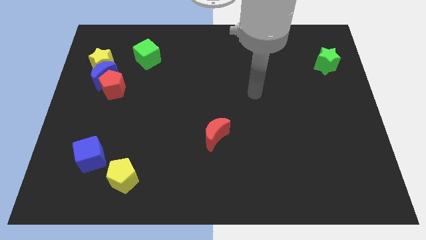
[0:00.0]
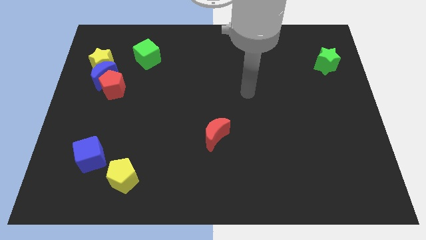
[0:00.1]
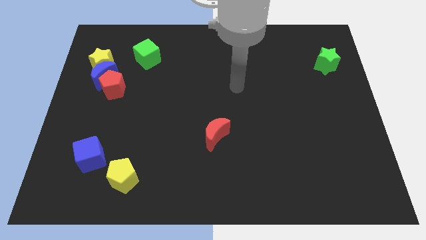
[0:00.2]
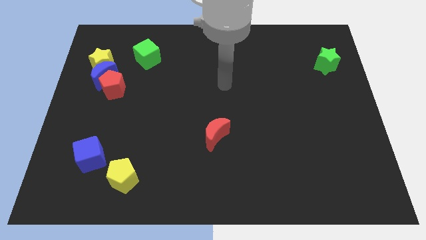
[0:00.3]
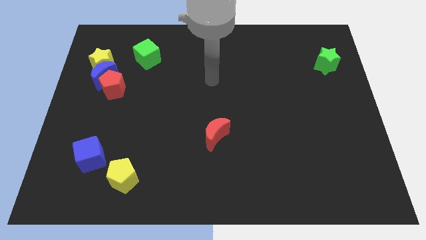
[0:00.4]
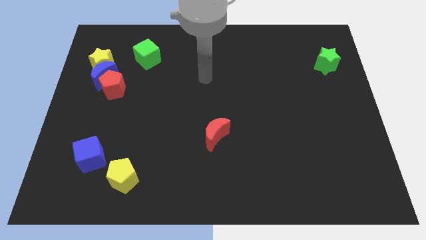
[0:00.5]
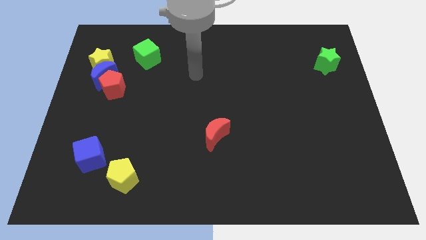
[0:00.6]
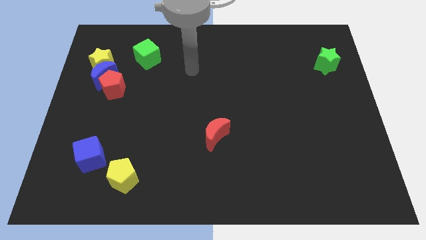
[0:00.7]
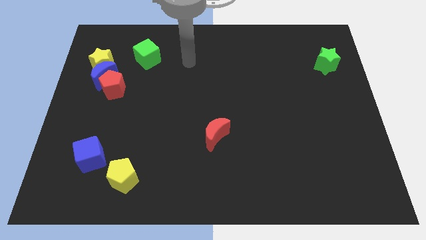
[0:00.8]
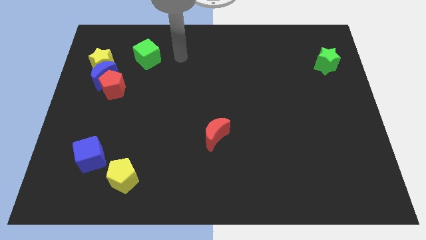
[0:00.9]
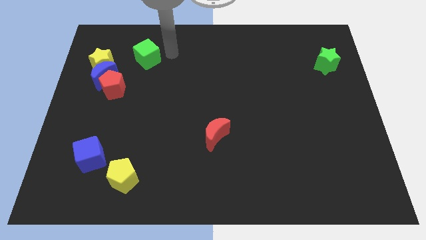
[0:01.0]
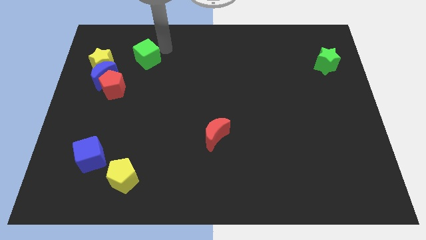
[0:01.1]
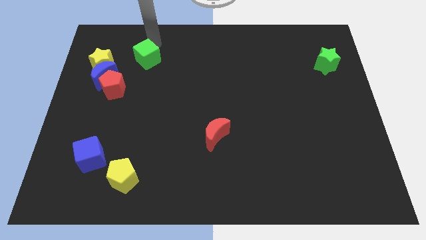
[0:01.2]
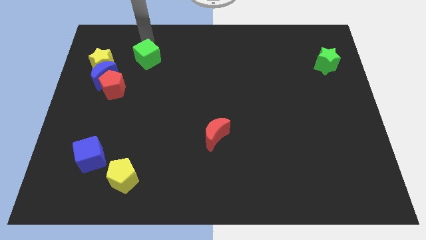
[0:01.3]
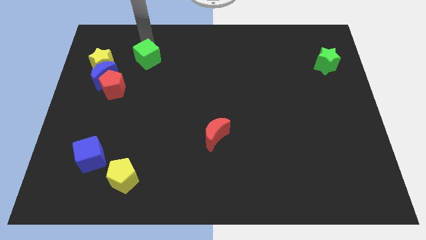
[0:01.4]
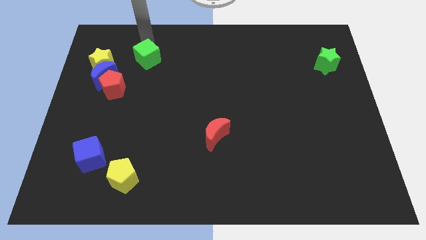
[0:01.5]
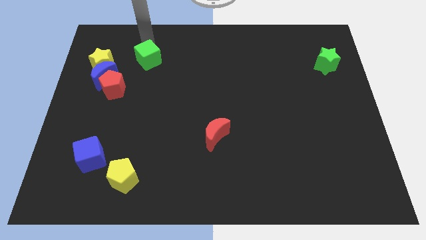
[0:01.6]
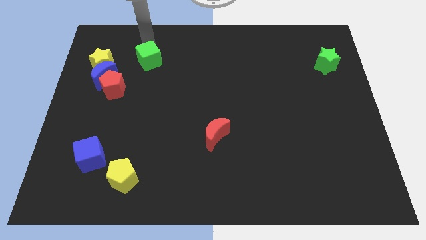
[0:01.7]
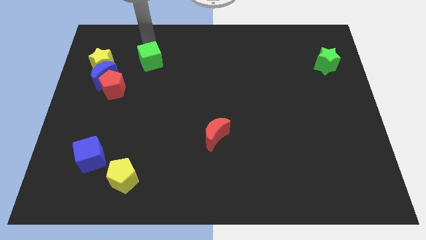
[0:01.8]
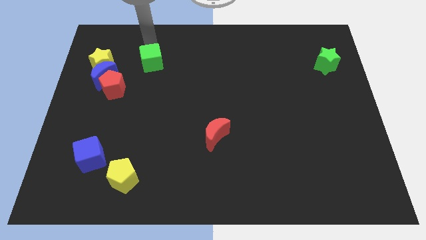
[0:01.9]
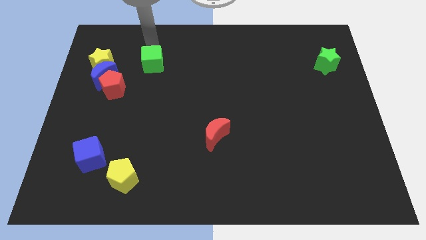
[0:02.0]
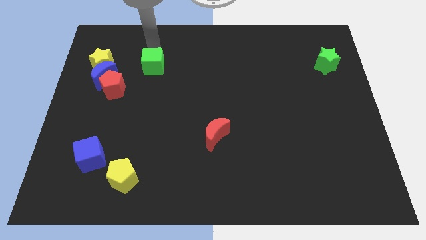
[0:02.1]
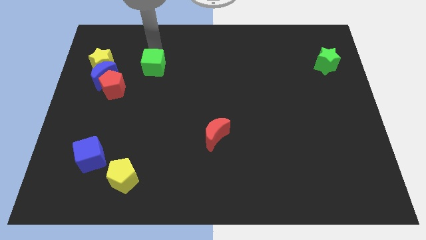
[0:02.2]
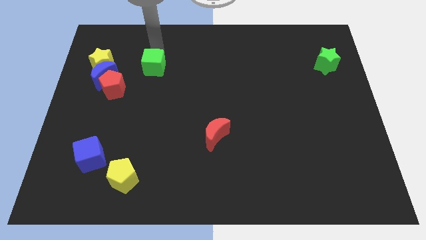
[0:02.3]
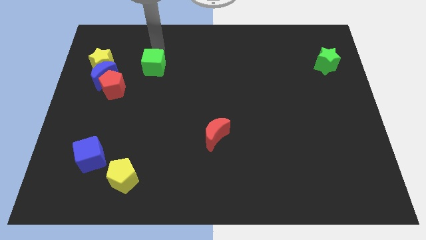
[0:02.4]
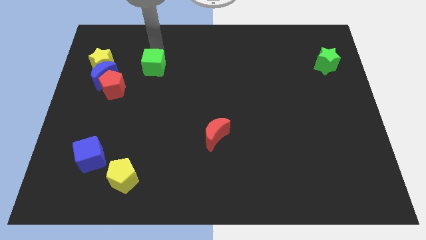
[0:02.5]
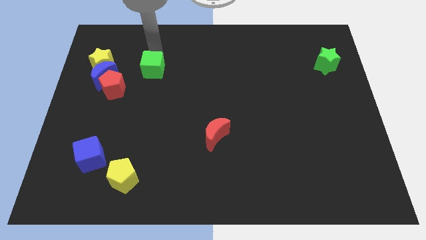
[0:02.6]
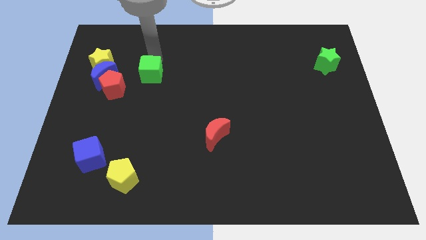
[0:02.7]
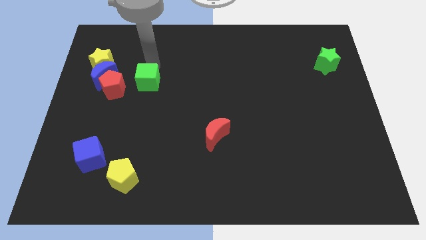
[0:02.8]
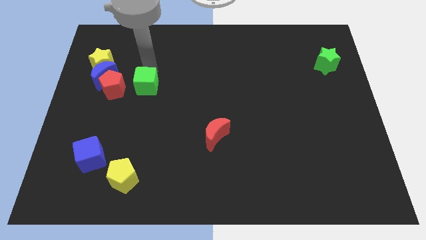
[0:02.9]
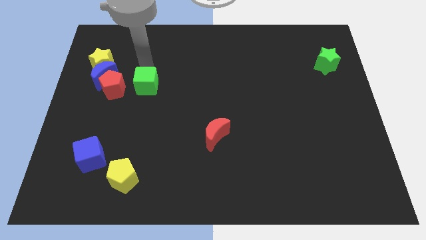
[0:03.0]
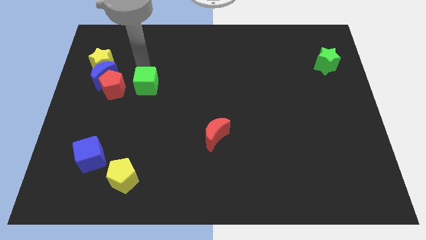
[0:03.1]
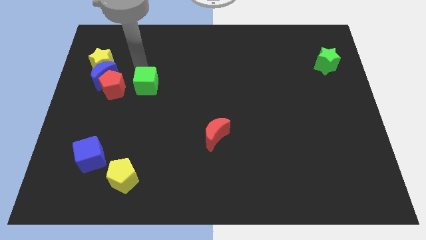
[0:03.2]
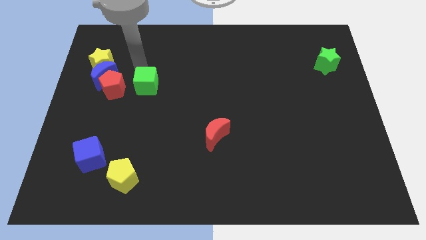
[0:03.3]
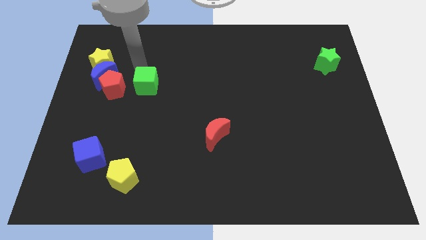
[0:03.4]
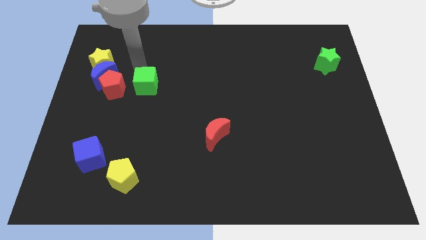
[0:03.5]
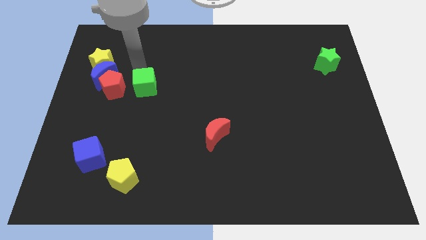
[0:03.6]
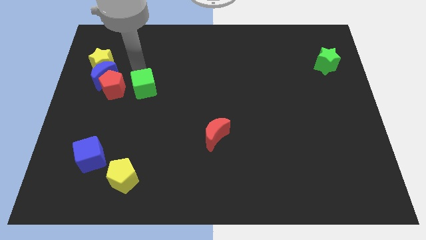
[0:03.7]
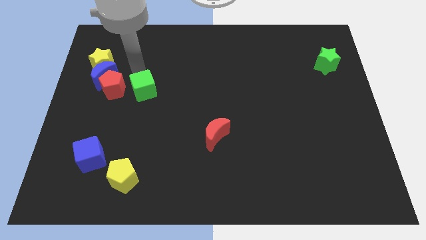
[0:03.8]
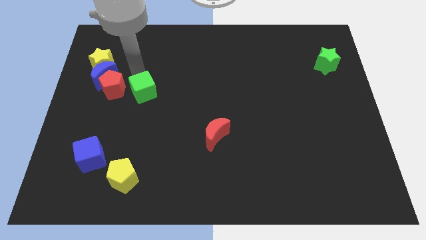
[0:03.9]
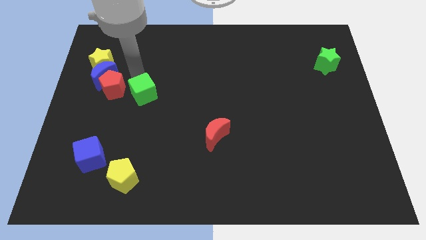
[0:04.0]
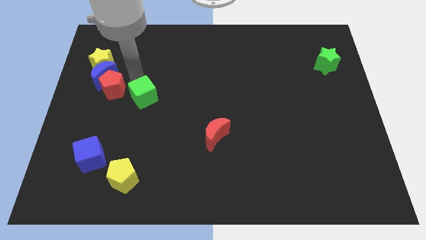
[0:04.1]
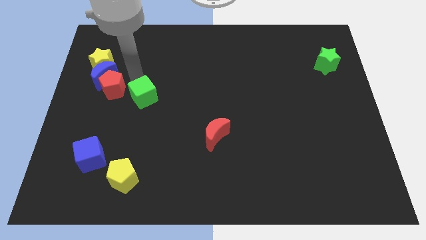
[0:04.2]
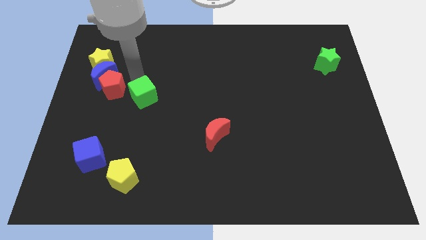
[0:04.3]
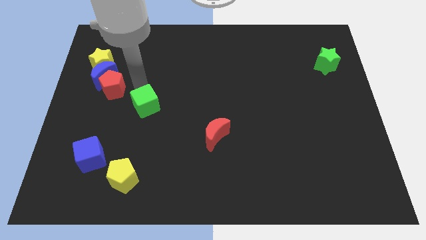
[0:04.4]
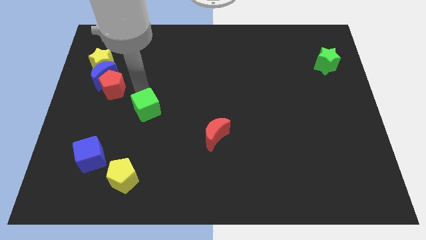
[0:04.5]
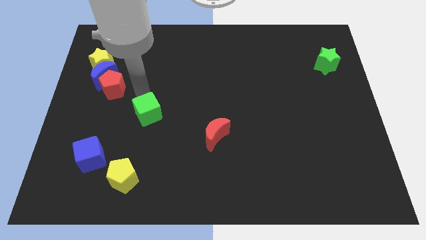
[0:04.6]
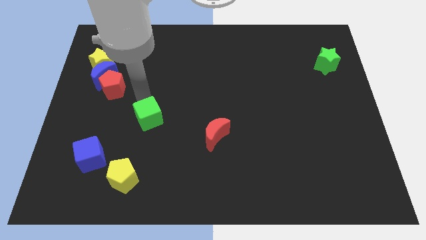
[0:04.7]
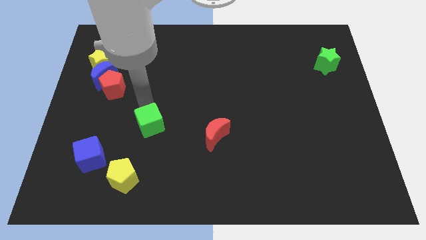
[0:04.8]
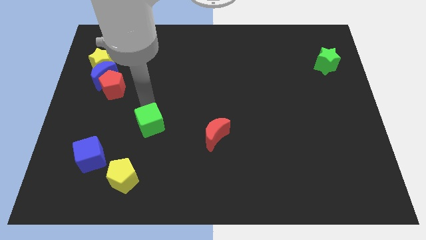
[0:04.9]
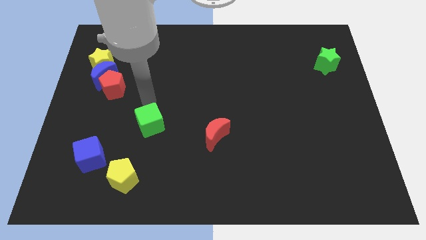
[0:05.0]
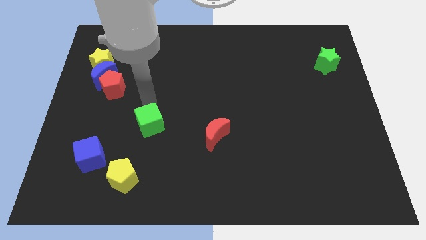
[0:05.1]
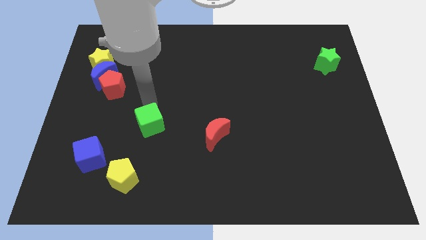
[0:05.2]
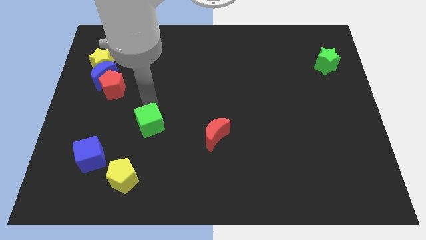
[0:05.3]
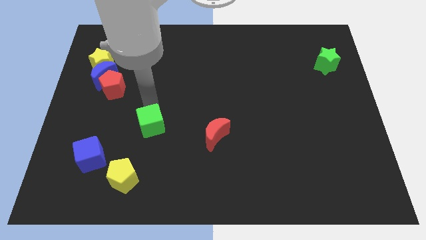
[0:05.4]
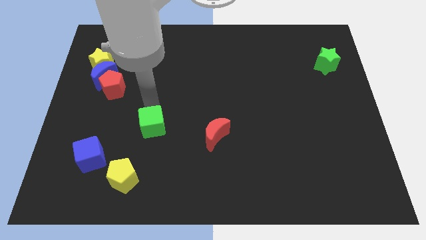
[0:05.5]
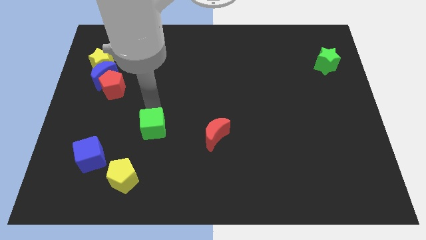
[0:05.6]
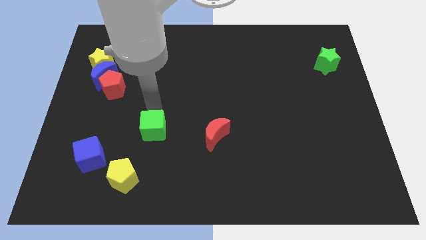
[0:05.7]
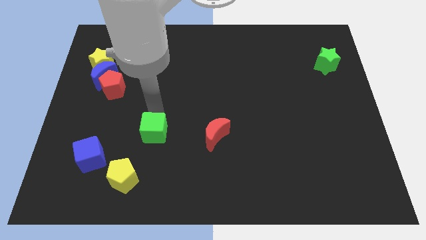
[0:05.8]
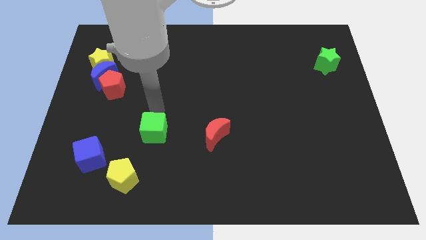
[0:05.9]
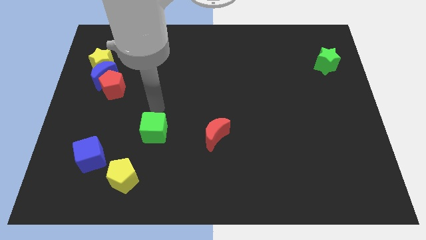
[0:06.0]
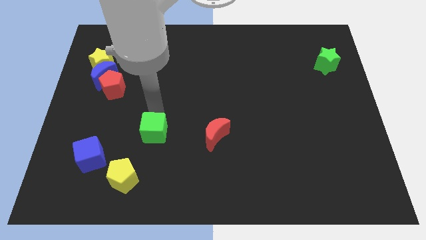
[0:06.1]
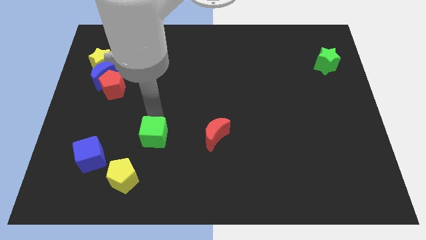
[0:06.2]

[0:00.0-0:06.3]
put the green cube to the top right side of the yellow pentagon

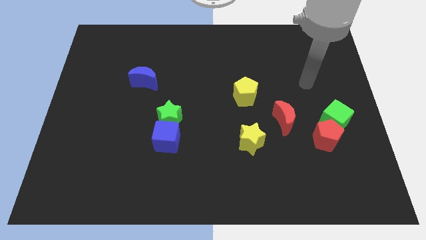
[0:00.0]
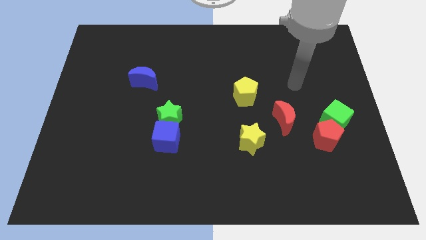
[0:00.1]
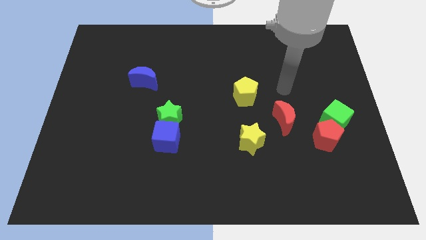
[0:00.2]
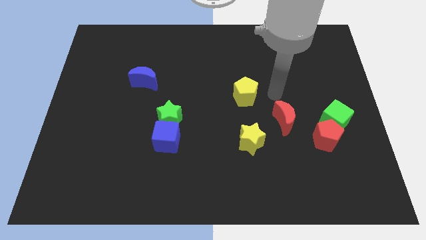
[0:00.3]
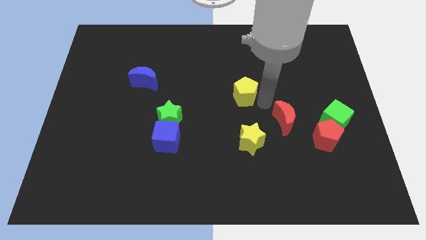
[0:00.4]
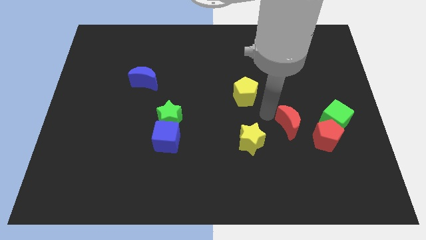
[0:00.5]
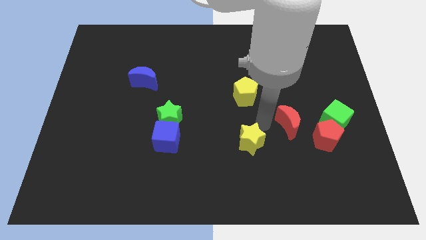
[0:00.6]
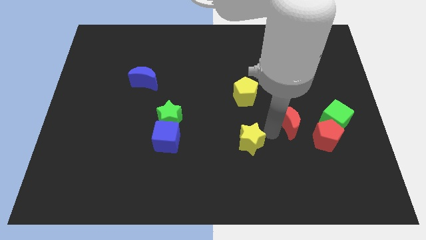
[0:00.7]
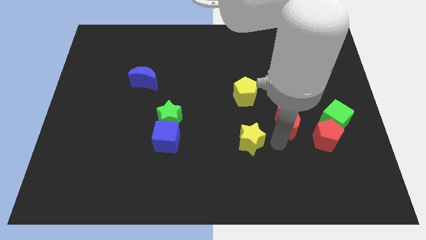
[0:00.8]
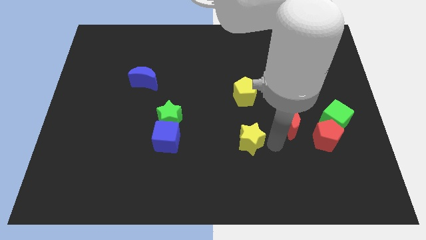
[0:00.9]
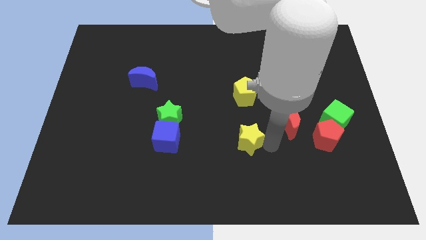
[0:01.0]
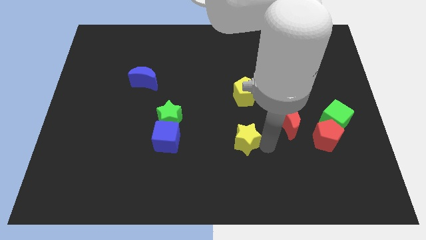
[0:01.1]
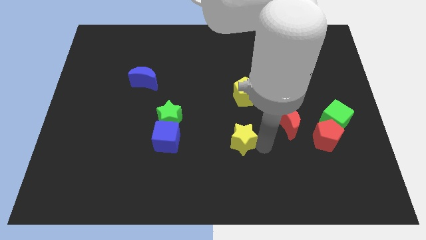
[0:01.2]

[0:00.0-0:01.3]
move the yellow star to the right side of the blue cube
